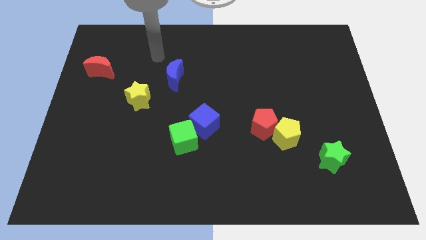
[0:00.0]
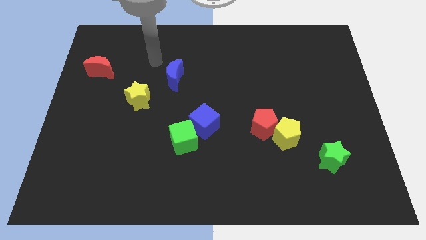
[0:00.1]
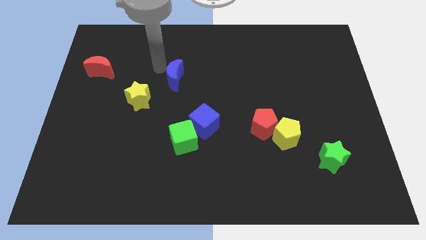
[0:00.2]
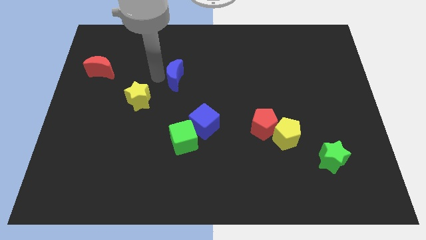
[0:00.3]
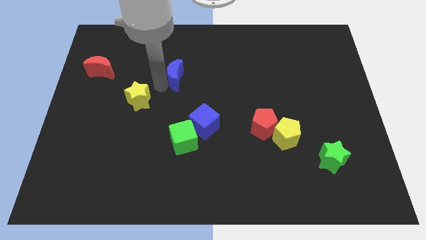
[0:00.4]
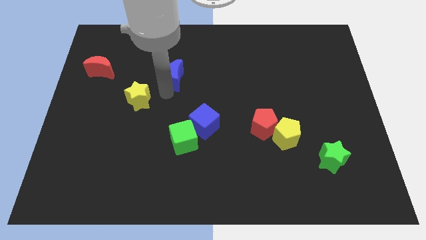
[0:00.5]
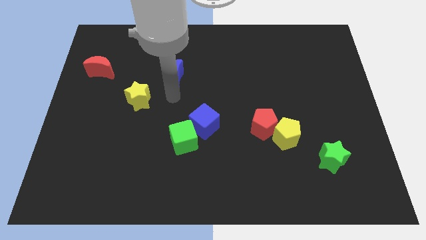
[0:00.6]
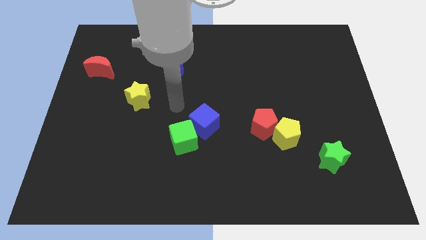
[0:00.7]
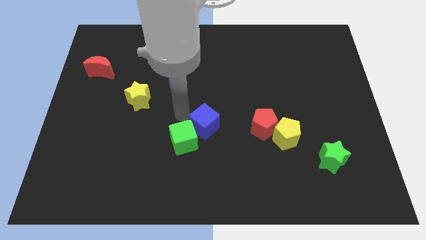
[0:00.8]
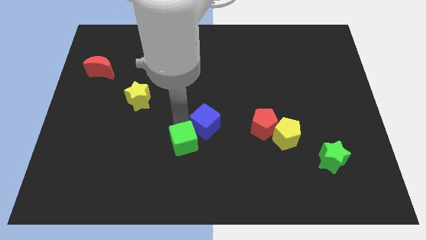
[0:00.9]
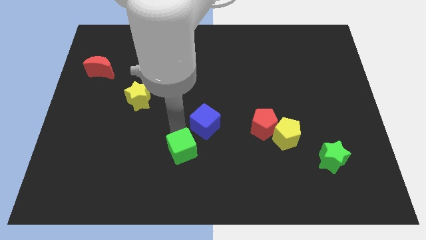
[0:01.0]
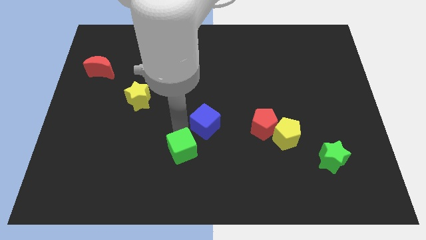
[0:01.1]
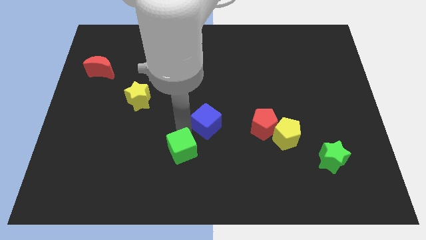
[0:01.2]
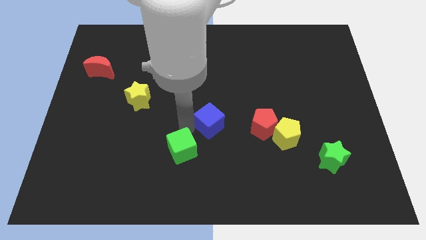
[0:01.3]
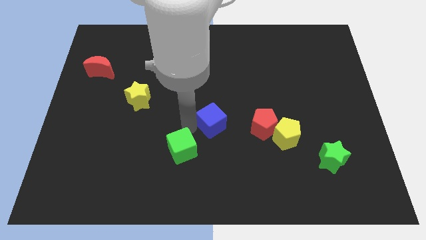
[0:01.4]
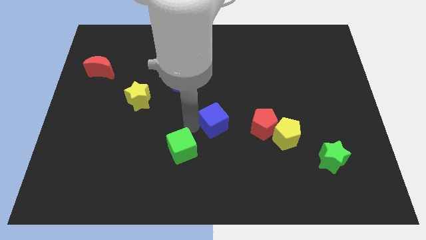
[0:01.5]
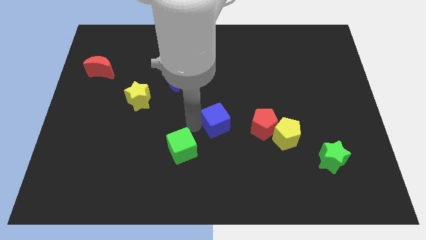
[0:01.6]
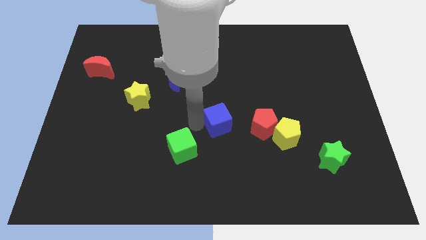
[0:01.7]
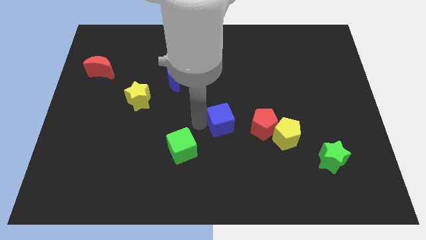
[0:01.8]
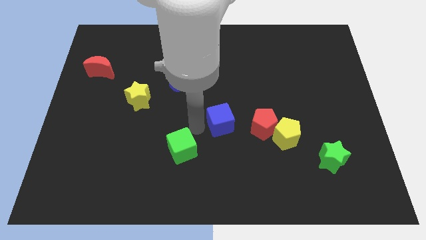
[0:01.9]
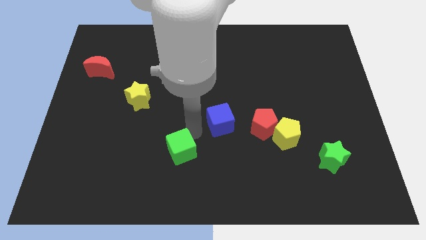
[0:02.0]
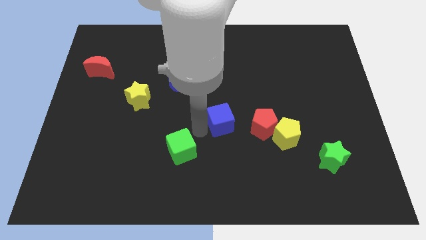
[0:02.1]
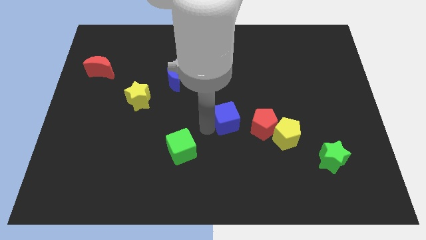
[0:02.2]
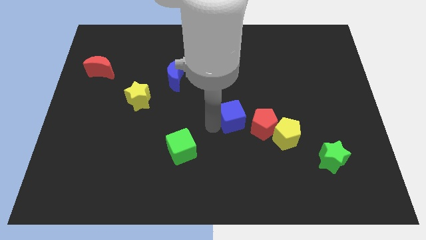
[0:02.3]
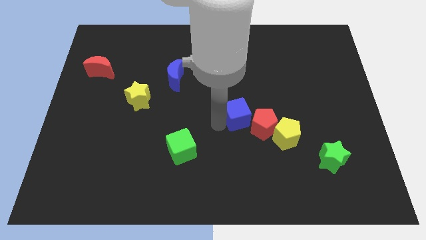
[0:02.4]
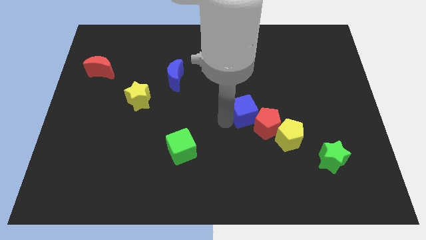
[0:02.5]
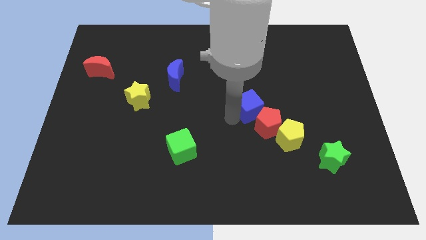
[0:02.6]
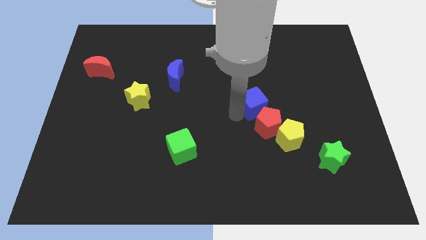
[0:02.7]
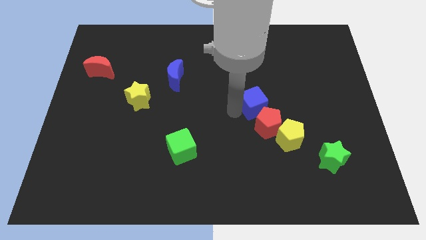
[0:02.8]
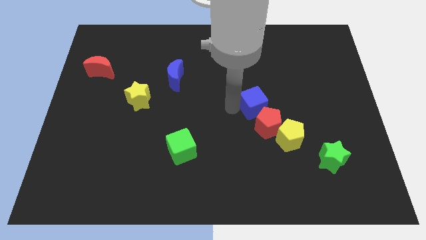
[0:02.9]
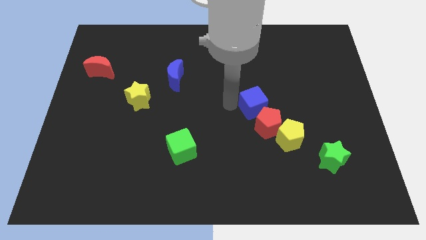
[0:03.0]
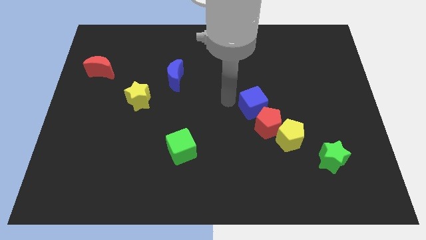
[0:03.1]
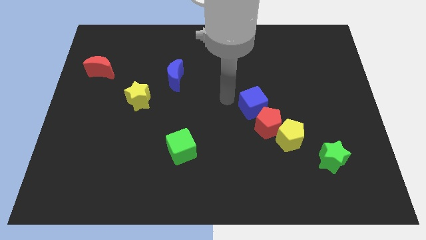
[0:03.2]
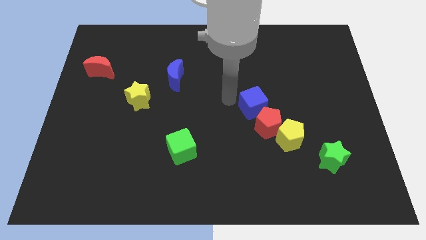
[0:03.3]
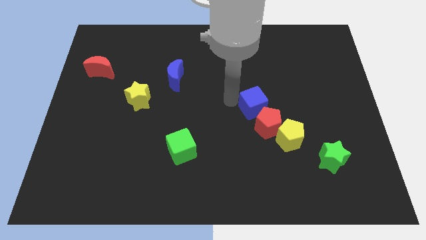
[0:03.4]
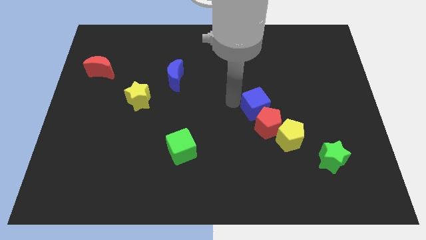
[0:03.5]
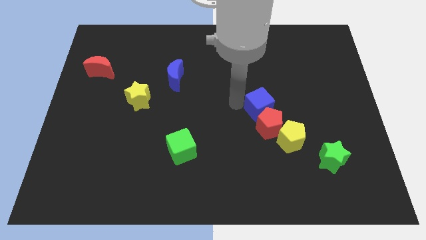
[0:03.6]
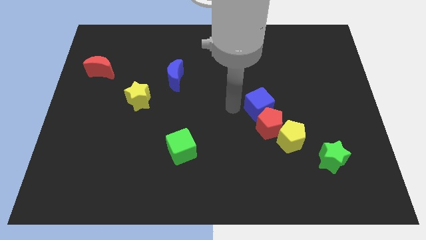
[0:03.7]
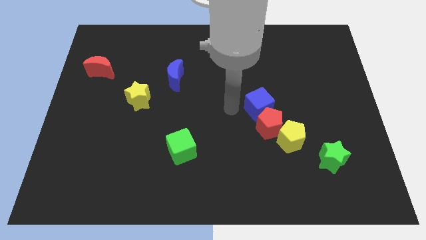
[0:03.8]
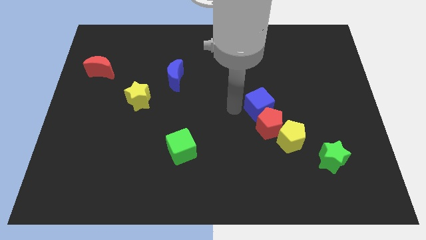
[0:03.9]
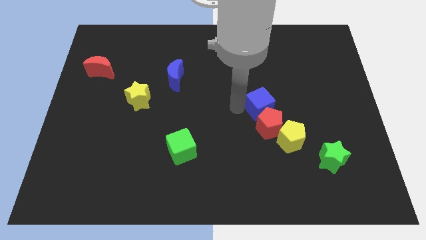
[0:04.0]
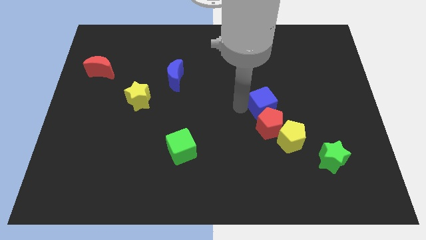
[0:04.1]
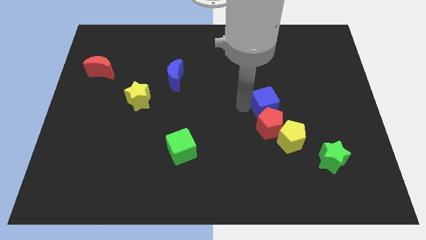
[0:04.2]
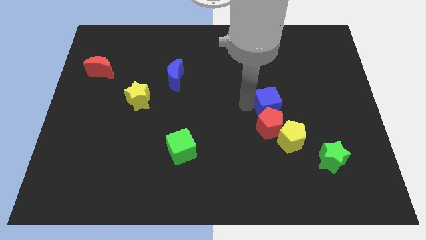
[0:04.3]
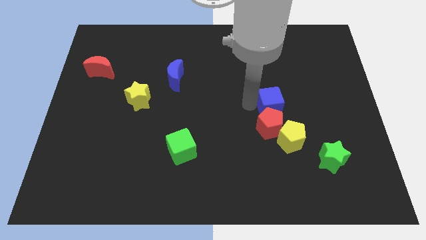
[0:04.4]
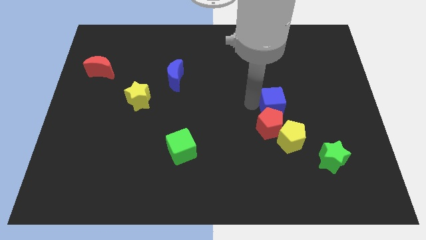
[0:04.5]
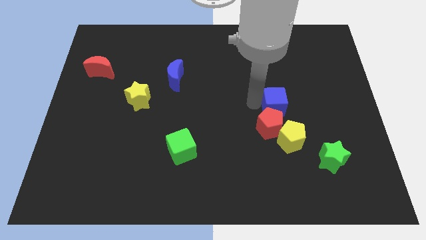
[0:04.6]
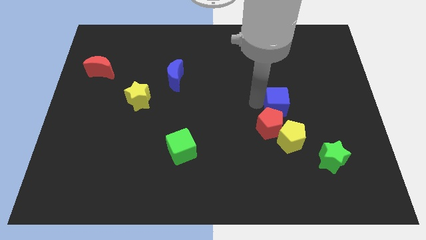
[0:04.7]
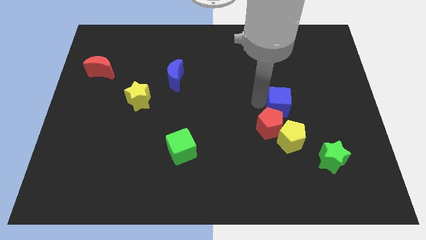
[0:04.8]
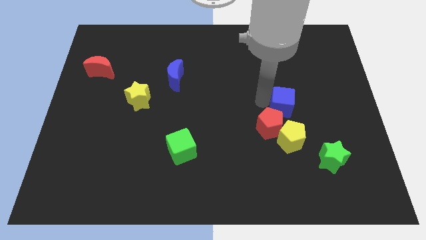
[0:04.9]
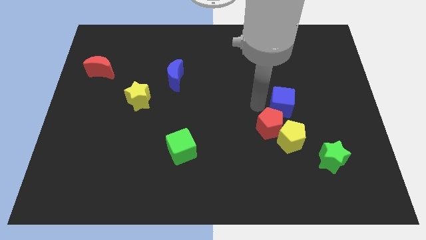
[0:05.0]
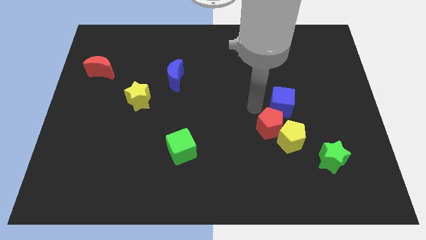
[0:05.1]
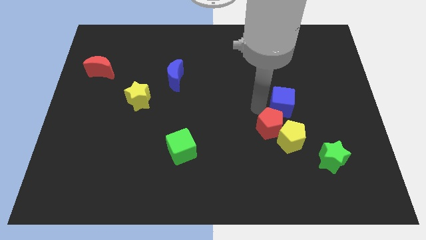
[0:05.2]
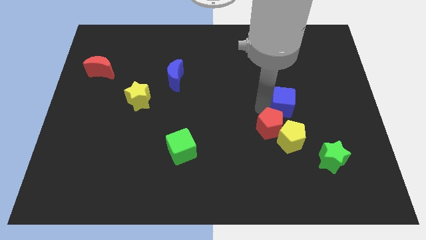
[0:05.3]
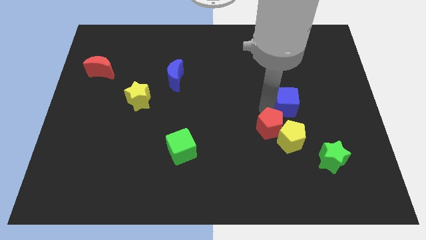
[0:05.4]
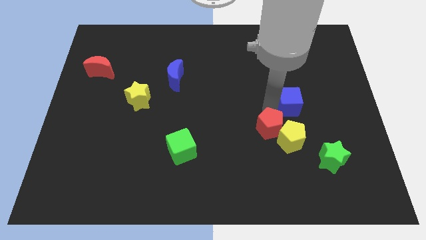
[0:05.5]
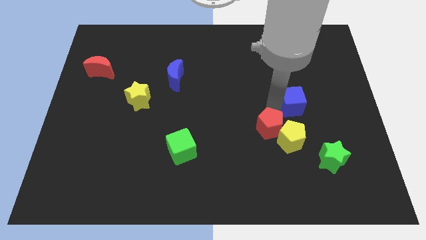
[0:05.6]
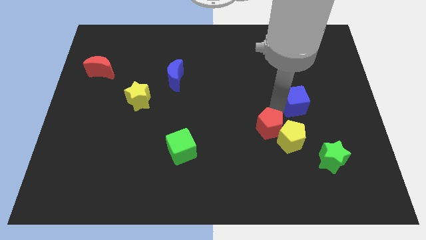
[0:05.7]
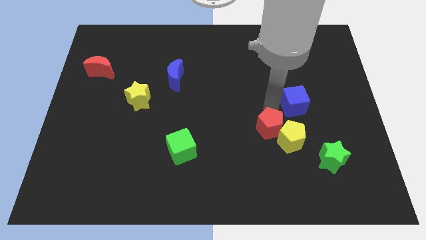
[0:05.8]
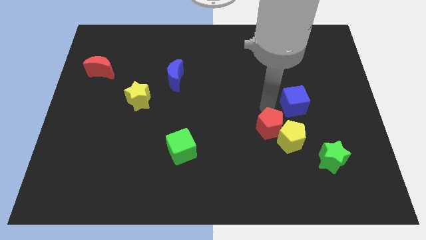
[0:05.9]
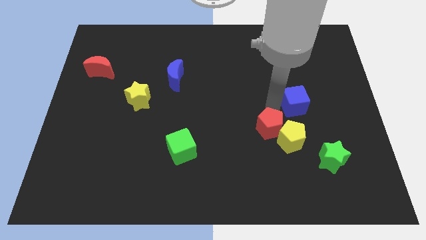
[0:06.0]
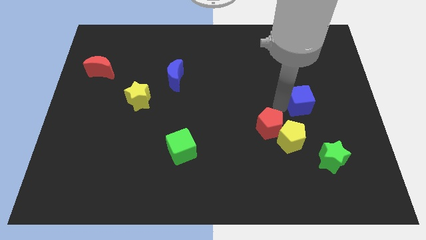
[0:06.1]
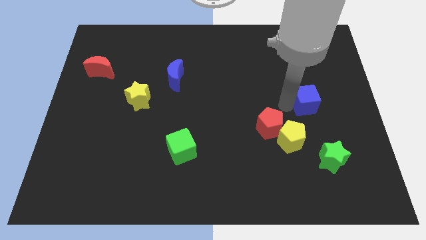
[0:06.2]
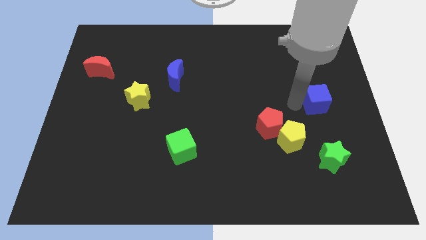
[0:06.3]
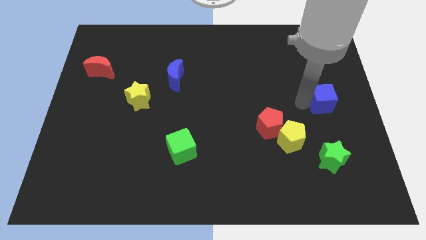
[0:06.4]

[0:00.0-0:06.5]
slide the blue cube to the center right

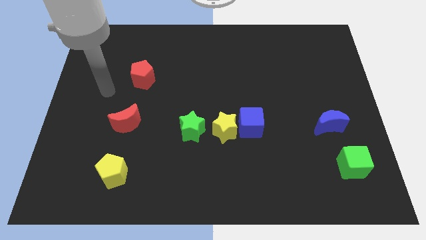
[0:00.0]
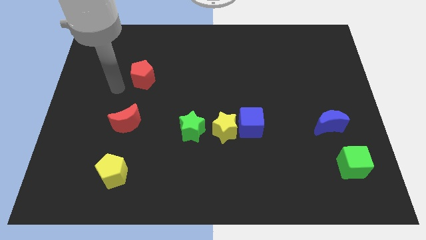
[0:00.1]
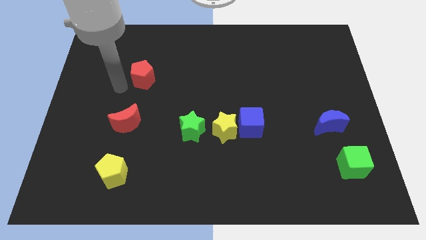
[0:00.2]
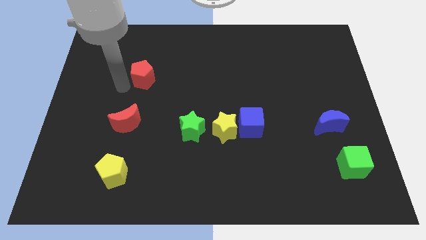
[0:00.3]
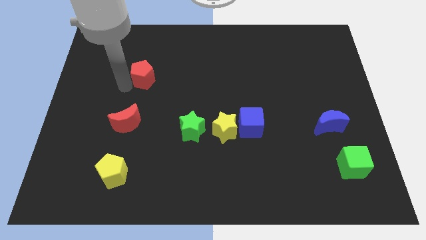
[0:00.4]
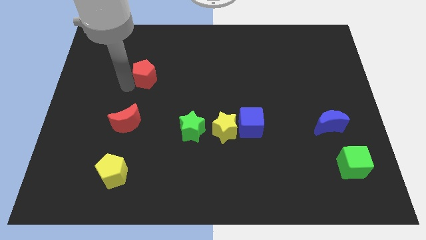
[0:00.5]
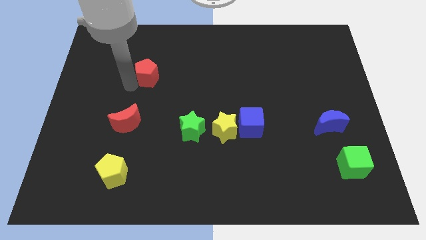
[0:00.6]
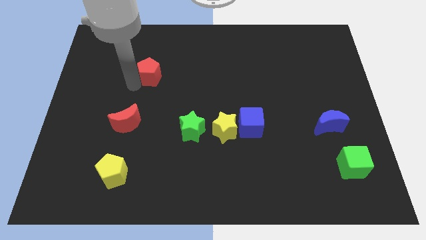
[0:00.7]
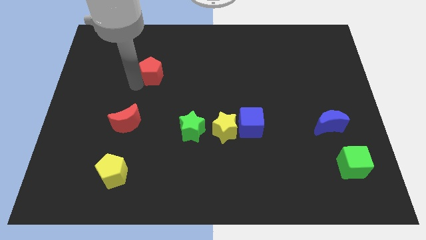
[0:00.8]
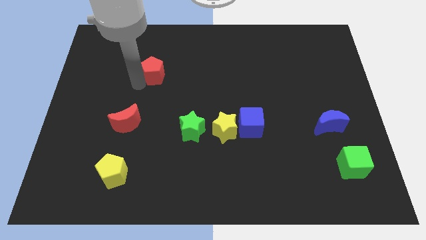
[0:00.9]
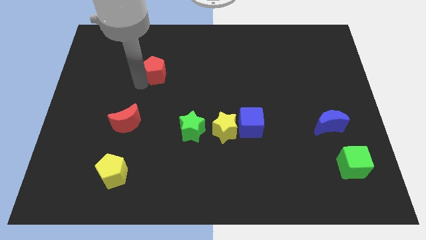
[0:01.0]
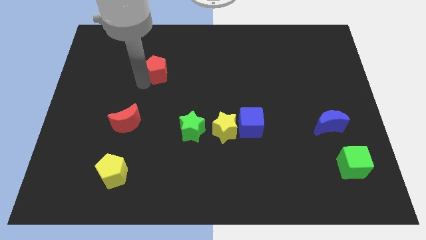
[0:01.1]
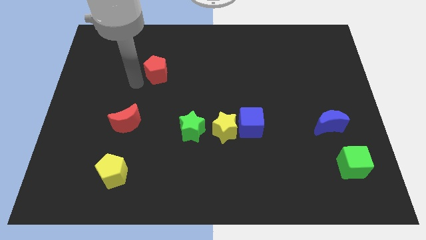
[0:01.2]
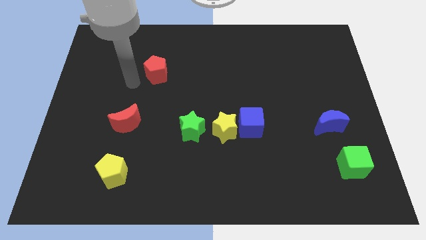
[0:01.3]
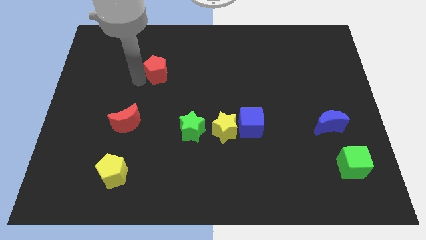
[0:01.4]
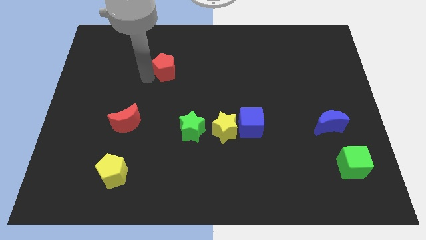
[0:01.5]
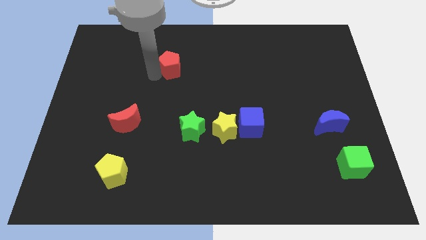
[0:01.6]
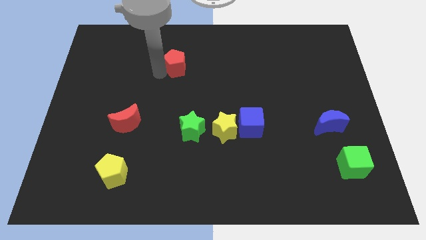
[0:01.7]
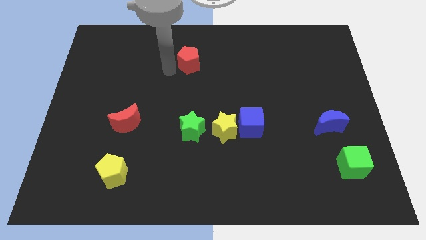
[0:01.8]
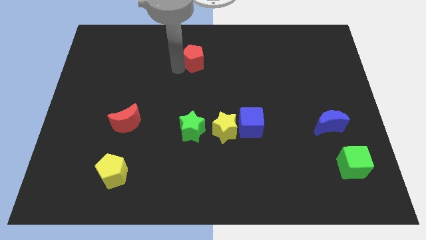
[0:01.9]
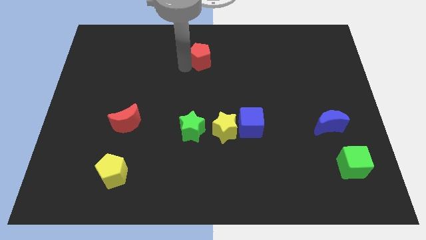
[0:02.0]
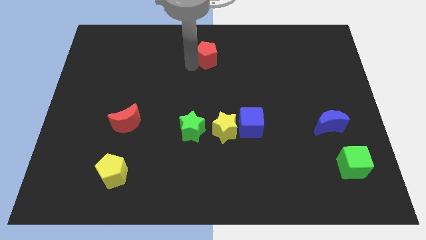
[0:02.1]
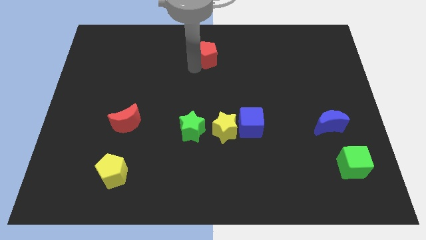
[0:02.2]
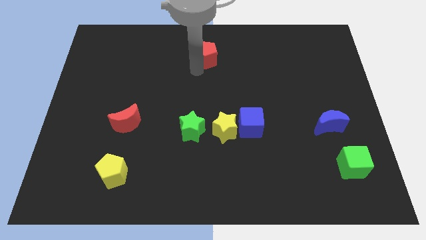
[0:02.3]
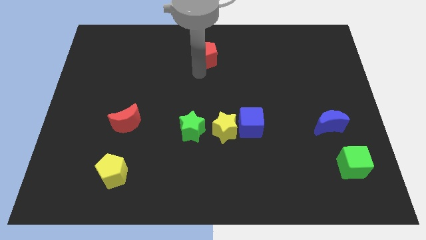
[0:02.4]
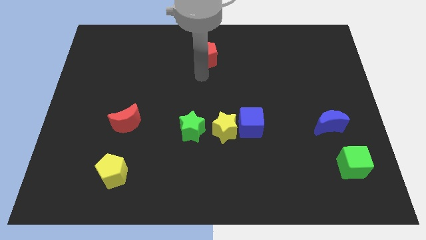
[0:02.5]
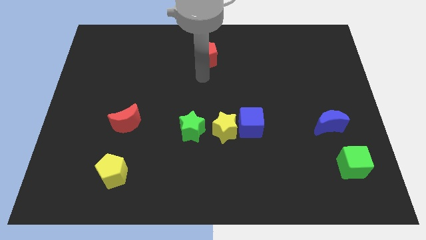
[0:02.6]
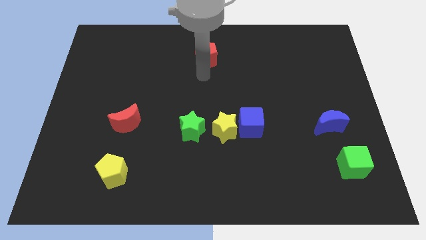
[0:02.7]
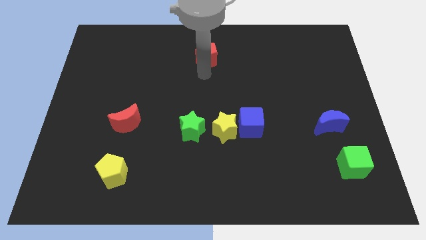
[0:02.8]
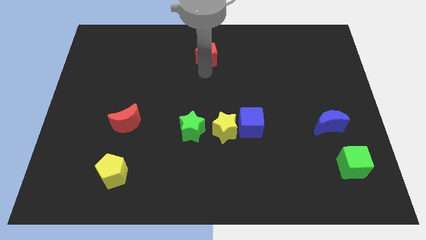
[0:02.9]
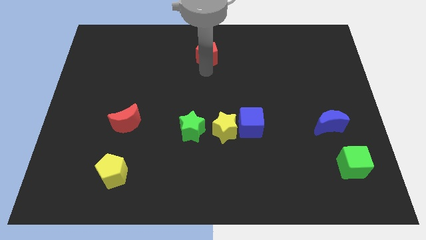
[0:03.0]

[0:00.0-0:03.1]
slide the red pentagon to the top
